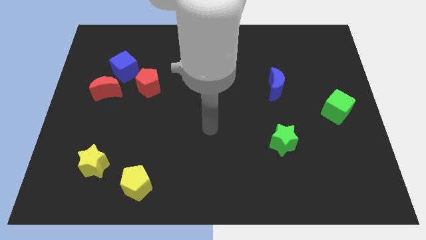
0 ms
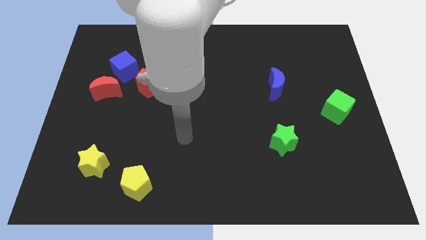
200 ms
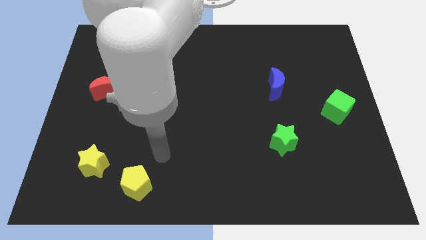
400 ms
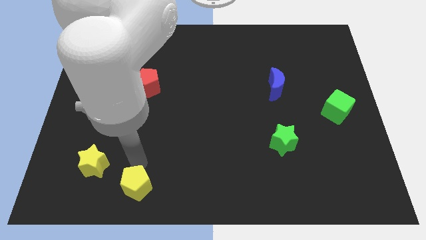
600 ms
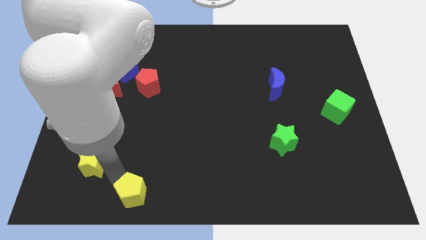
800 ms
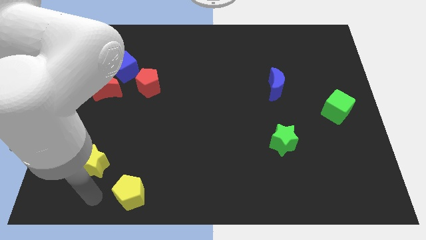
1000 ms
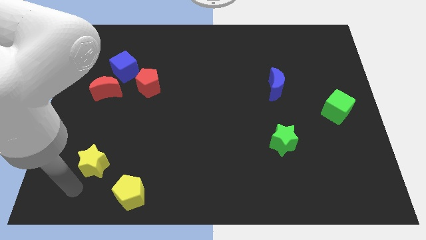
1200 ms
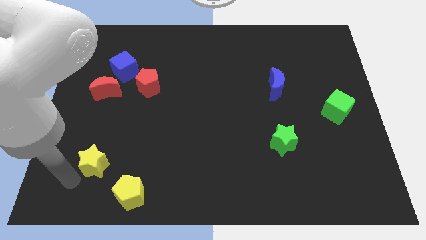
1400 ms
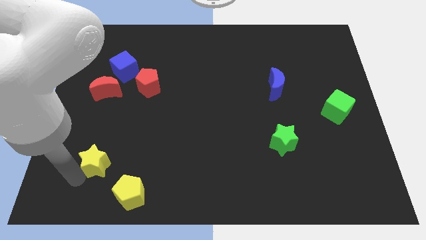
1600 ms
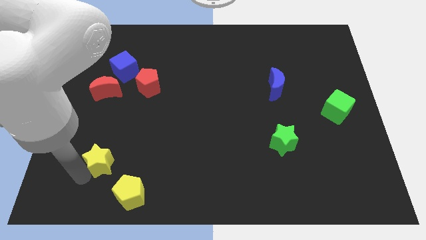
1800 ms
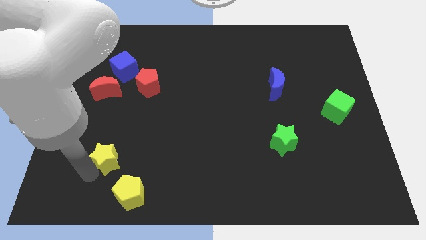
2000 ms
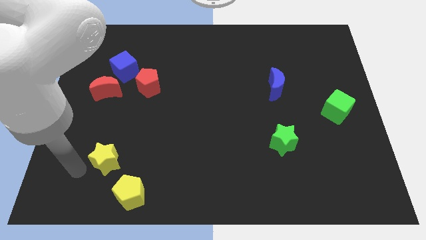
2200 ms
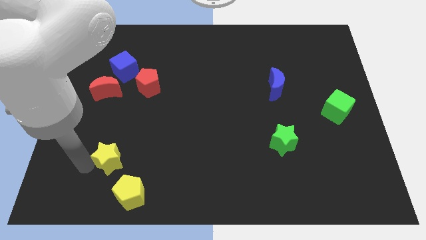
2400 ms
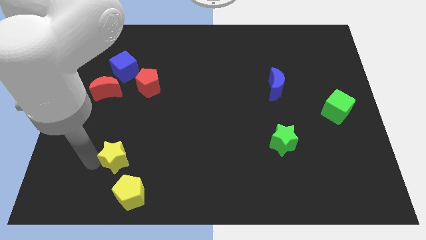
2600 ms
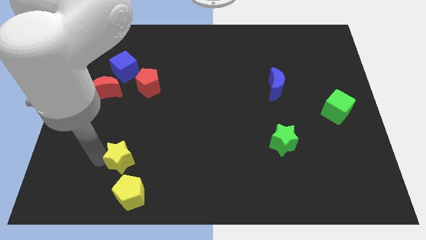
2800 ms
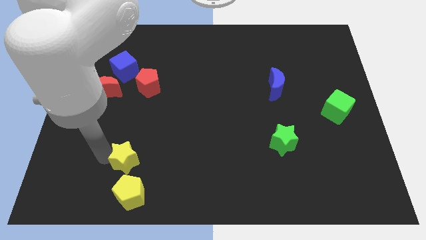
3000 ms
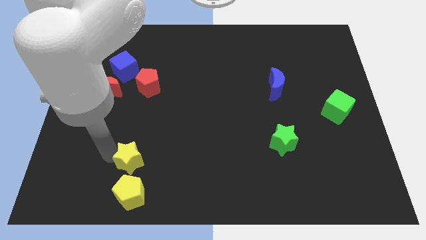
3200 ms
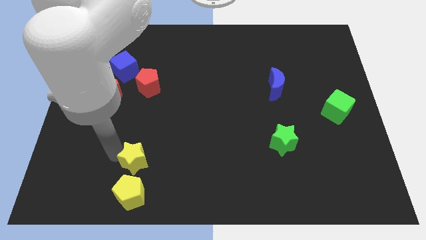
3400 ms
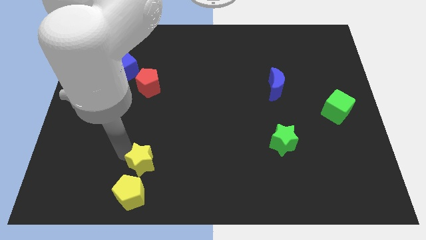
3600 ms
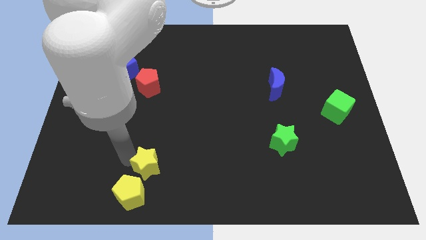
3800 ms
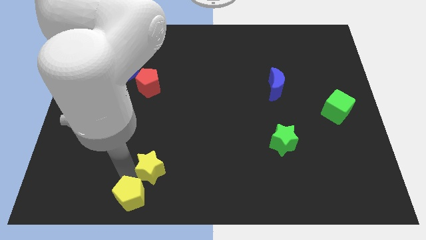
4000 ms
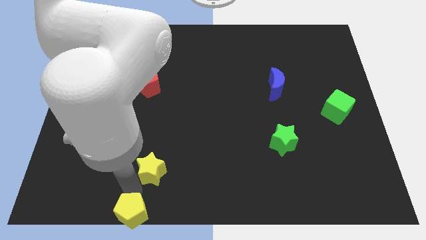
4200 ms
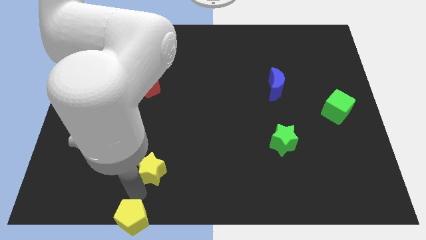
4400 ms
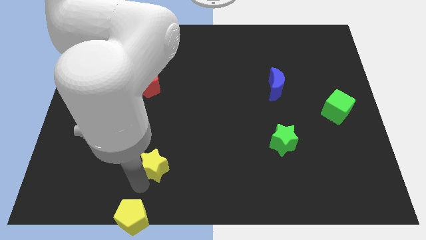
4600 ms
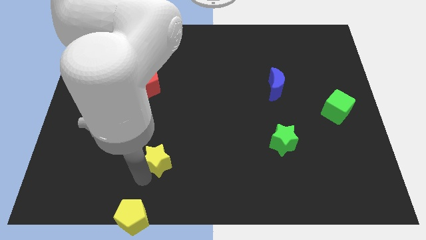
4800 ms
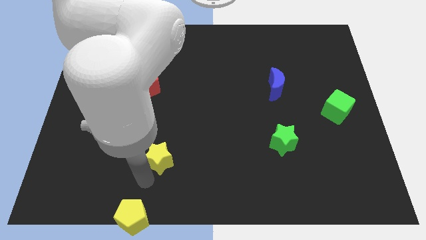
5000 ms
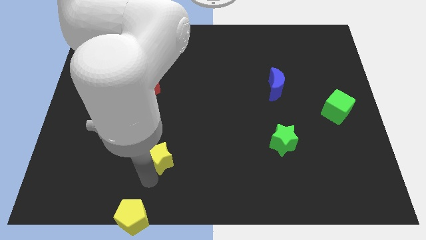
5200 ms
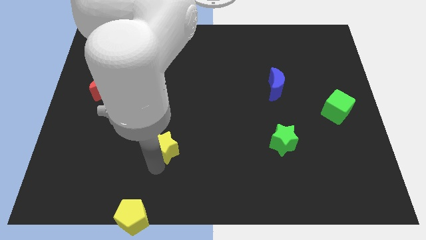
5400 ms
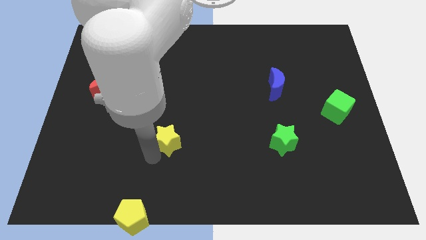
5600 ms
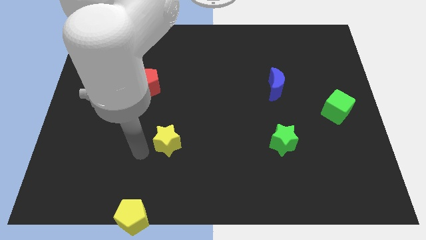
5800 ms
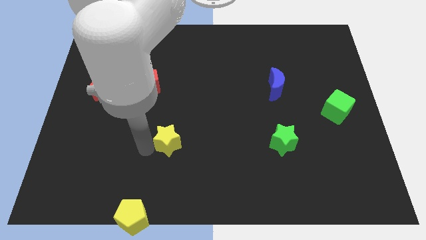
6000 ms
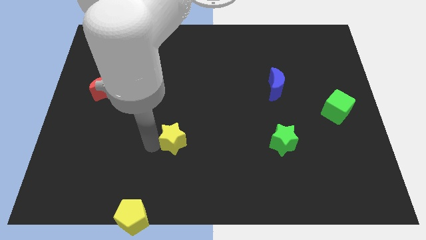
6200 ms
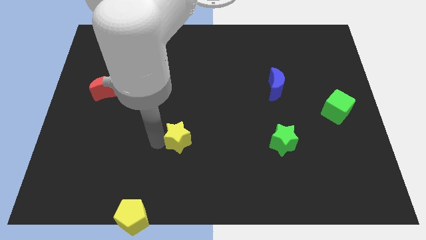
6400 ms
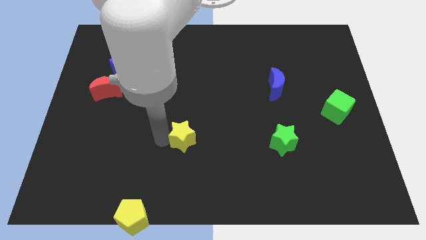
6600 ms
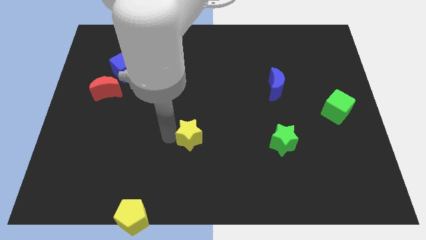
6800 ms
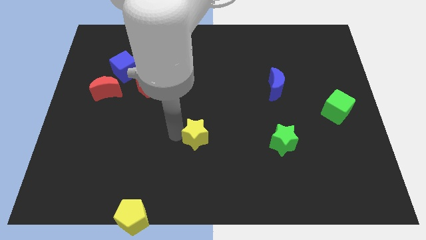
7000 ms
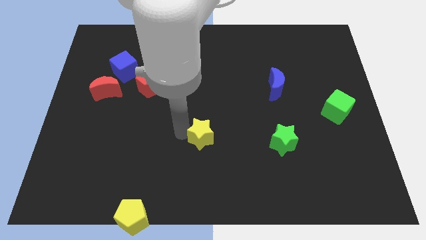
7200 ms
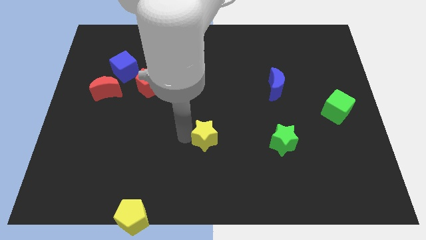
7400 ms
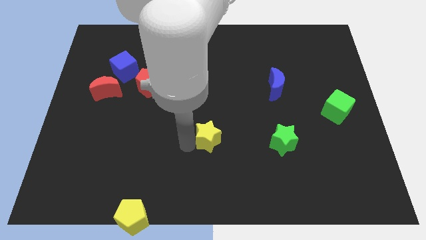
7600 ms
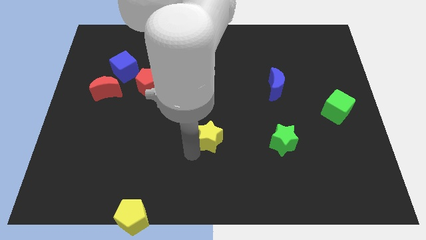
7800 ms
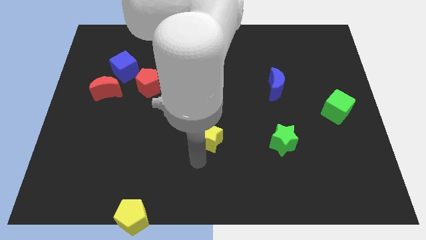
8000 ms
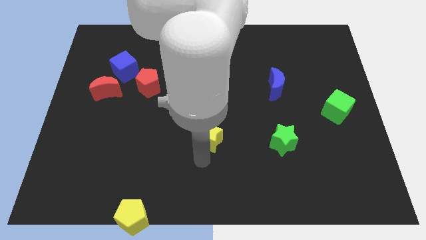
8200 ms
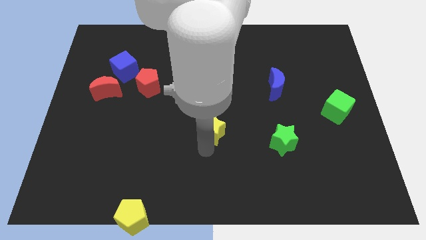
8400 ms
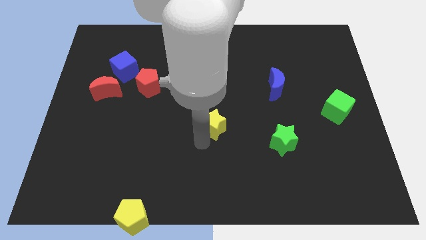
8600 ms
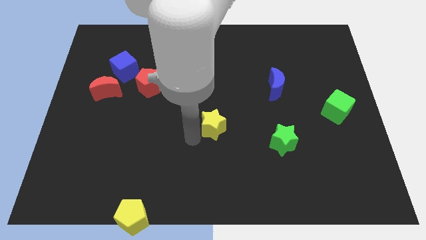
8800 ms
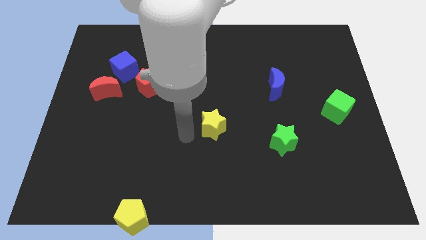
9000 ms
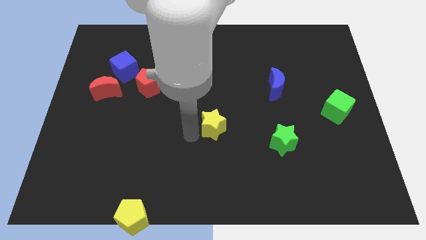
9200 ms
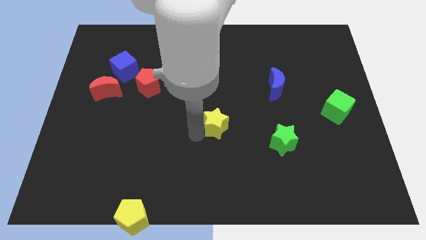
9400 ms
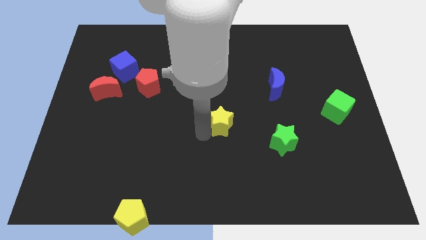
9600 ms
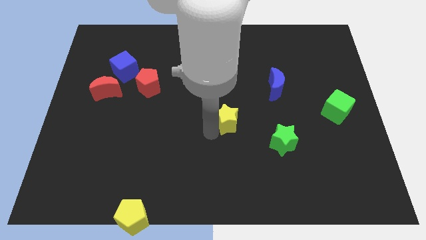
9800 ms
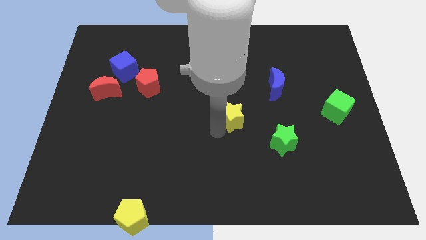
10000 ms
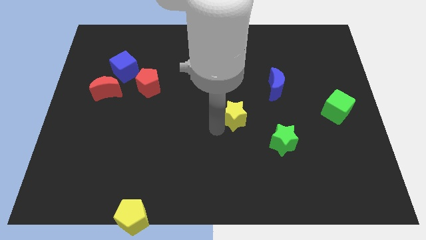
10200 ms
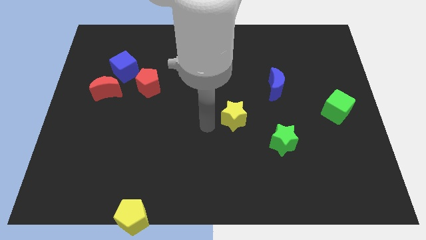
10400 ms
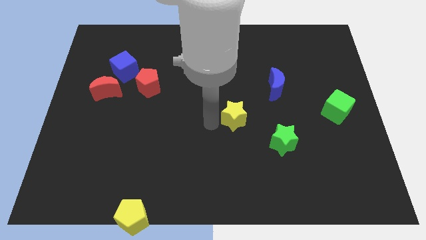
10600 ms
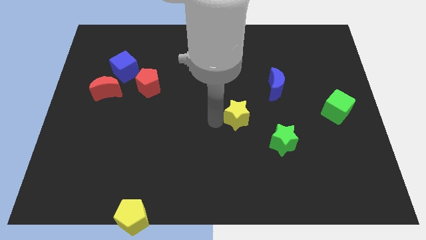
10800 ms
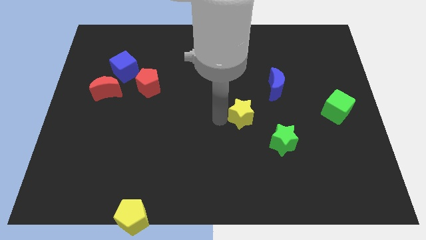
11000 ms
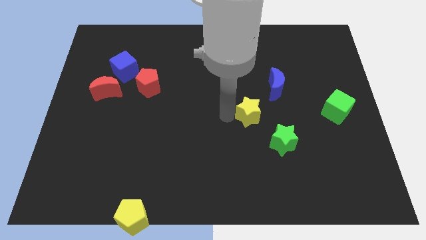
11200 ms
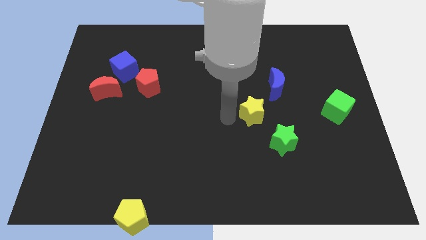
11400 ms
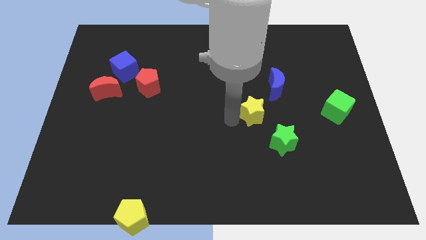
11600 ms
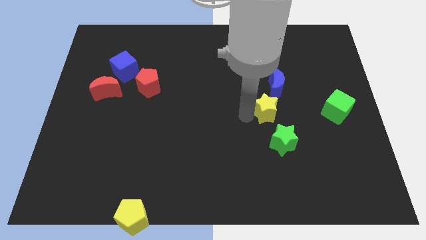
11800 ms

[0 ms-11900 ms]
push the yellow star above the green star

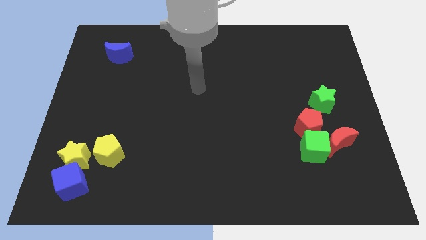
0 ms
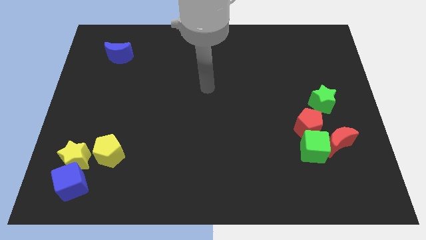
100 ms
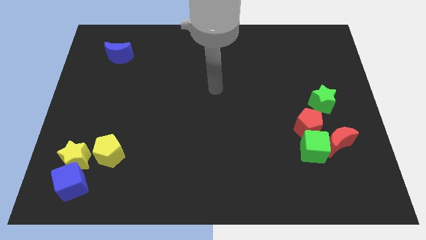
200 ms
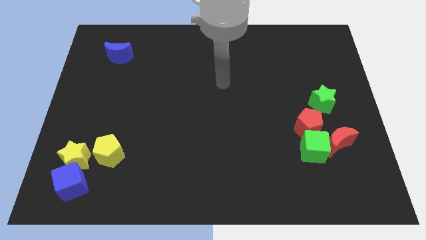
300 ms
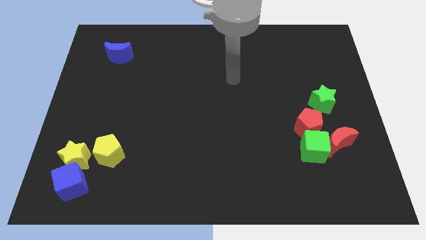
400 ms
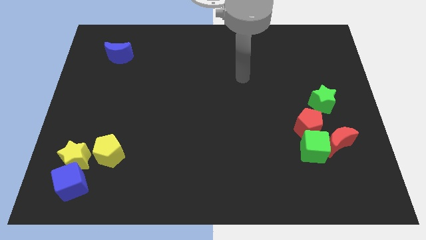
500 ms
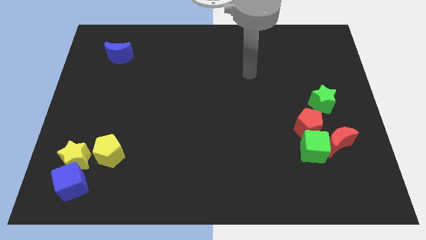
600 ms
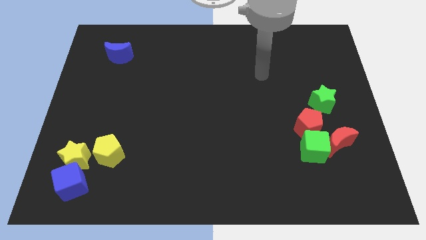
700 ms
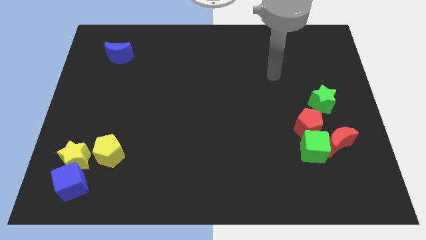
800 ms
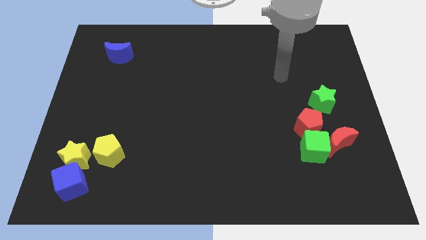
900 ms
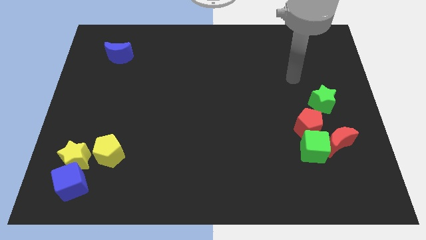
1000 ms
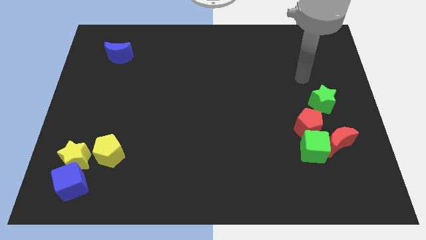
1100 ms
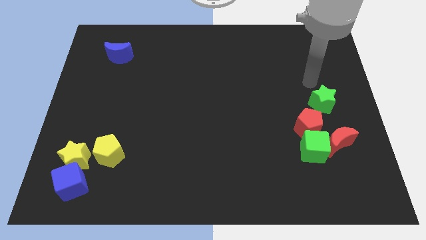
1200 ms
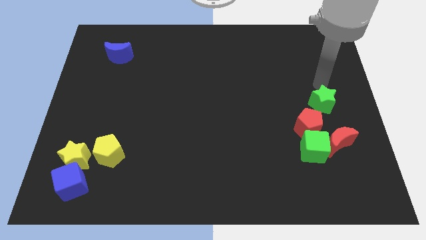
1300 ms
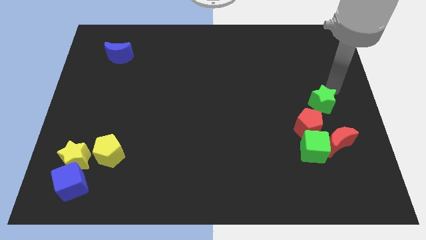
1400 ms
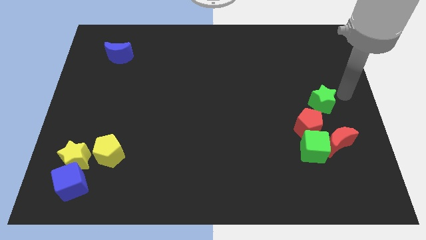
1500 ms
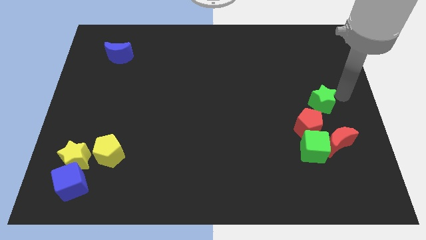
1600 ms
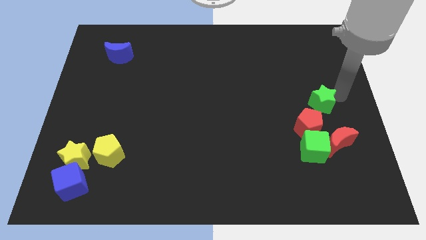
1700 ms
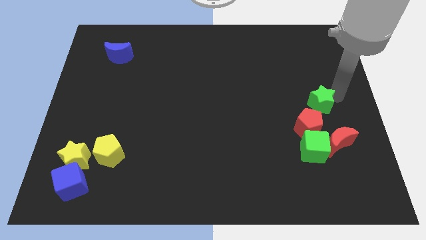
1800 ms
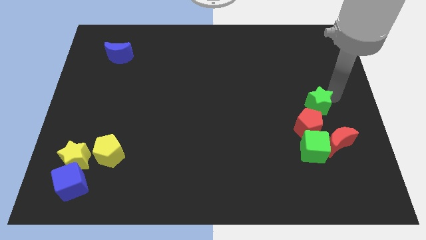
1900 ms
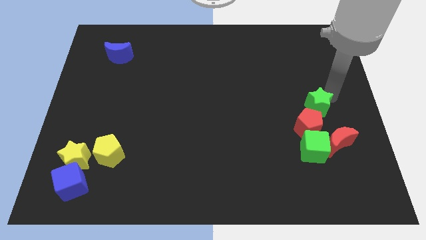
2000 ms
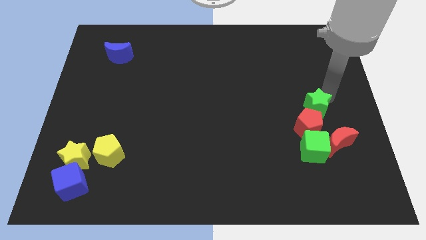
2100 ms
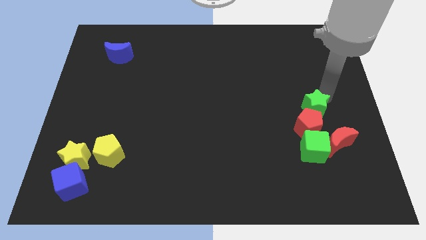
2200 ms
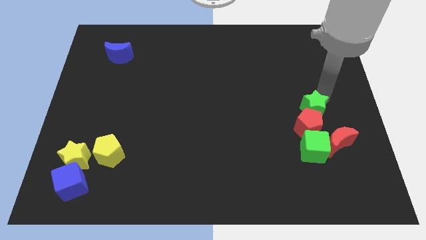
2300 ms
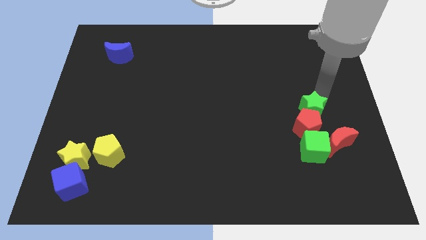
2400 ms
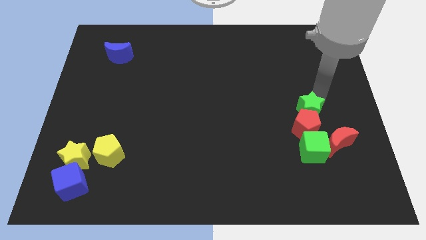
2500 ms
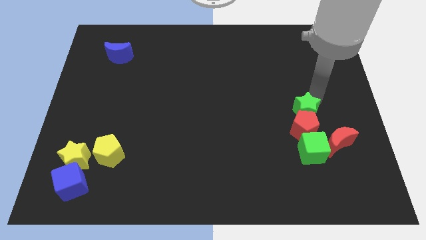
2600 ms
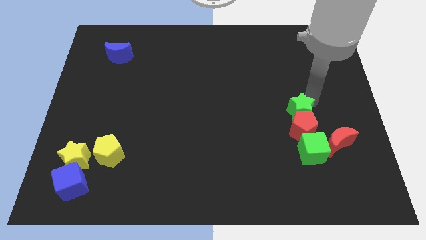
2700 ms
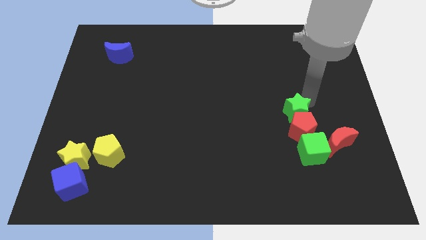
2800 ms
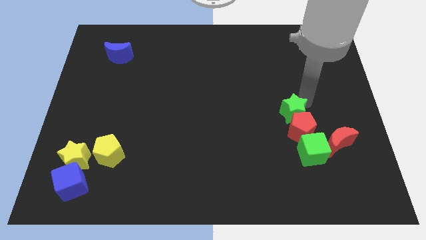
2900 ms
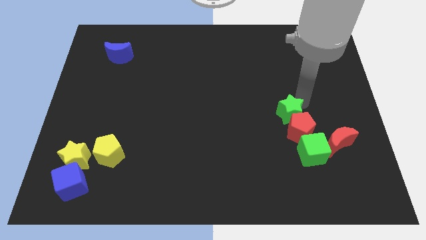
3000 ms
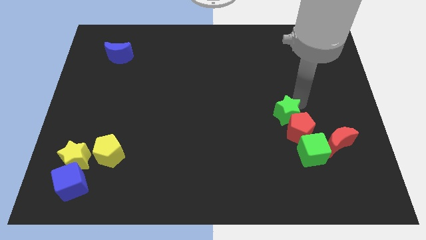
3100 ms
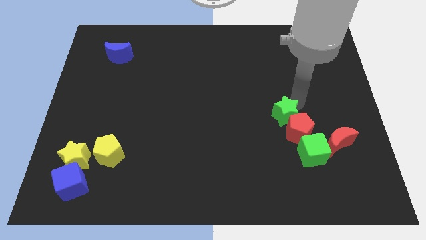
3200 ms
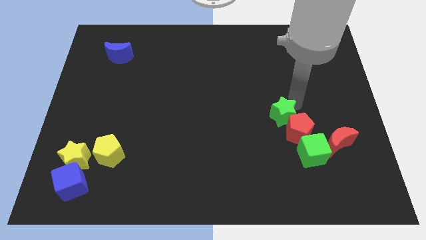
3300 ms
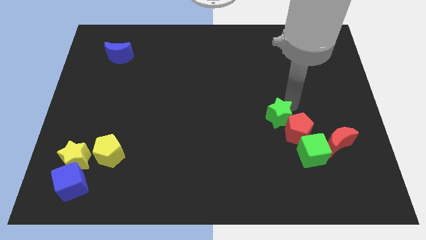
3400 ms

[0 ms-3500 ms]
put the green star to the left side of the red pentagon
